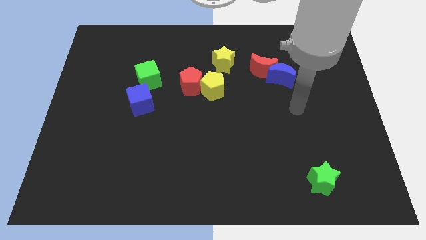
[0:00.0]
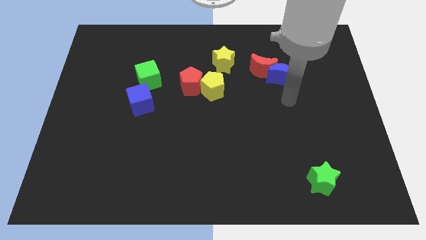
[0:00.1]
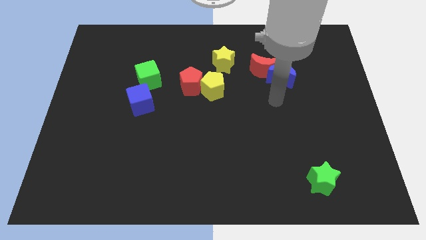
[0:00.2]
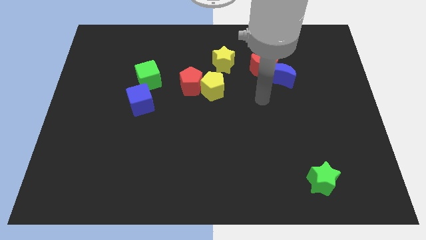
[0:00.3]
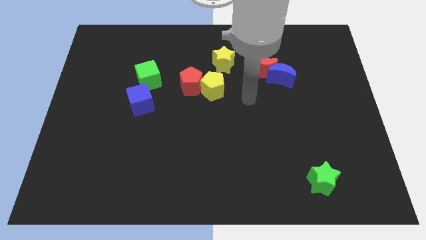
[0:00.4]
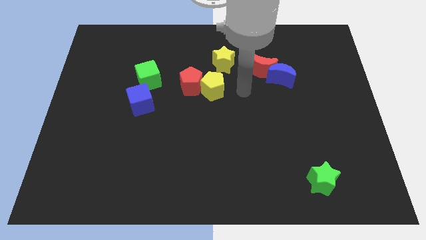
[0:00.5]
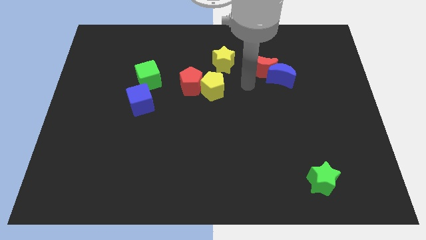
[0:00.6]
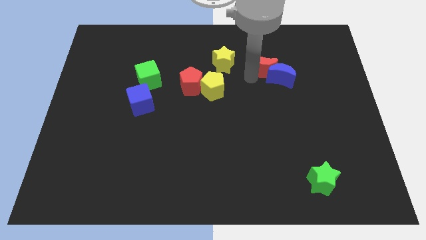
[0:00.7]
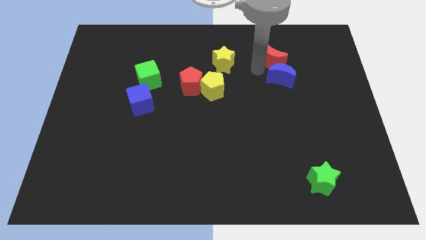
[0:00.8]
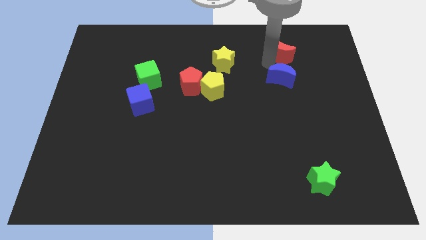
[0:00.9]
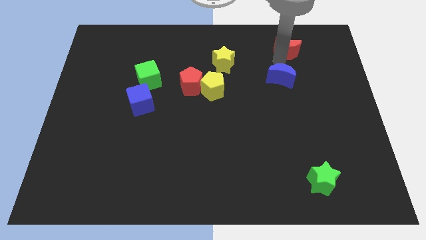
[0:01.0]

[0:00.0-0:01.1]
pull the blue moon apart from the red moon

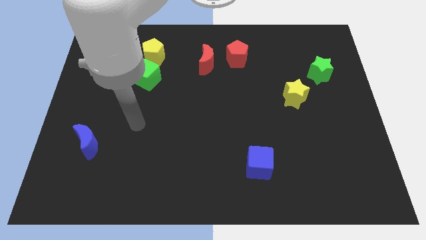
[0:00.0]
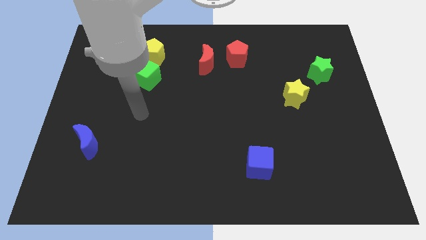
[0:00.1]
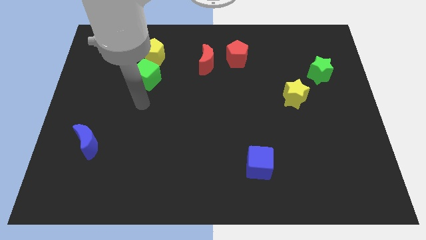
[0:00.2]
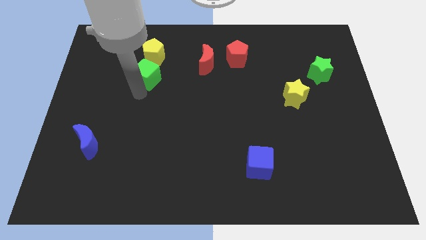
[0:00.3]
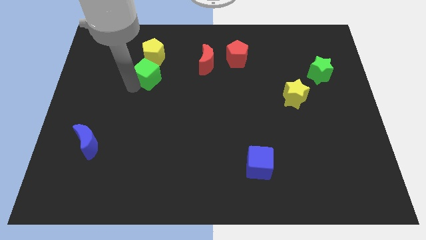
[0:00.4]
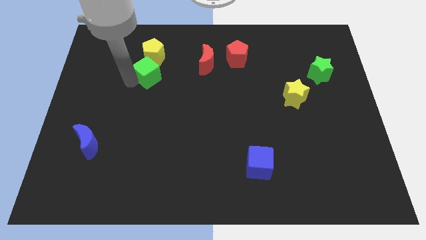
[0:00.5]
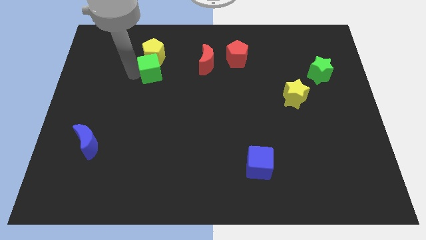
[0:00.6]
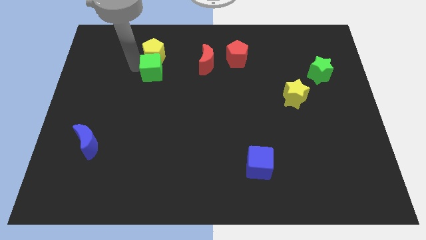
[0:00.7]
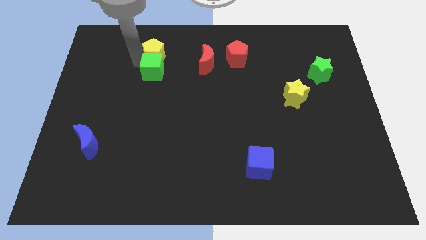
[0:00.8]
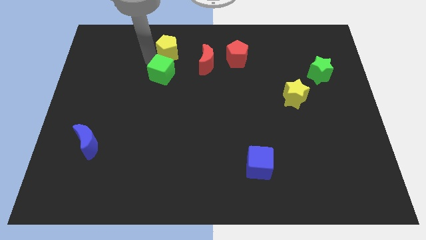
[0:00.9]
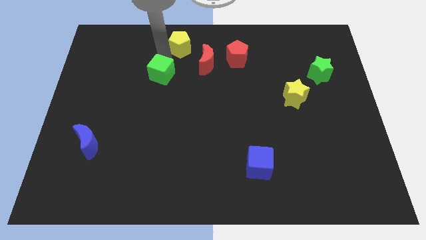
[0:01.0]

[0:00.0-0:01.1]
separate the green cube from the yellow pentagon

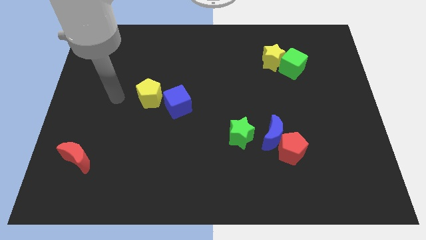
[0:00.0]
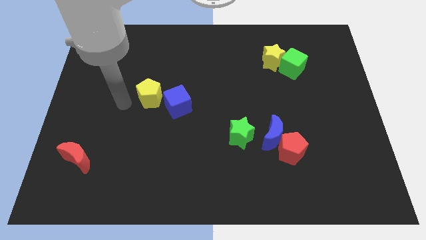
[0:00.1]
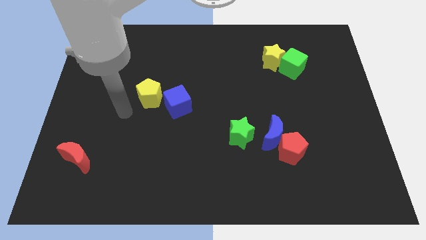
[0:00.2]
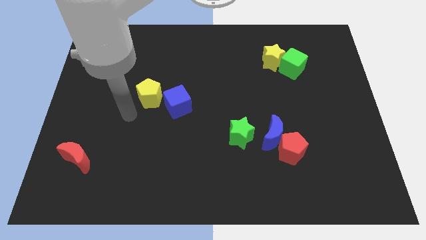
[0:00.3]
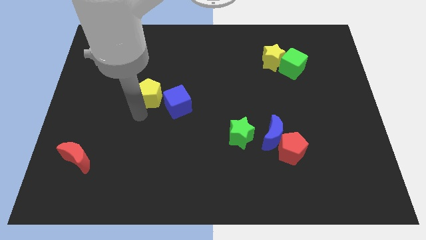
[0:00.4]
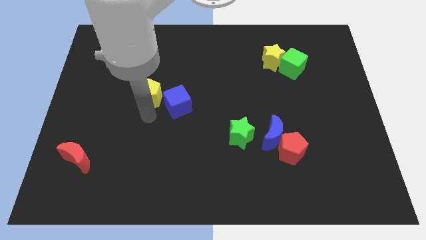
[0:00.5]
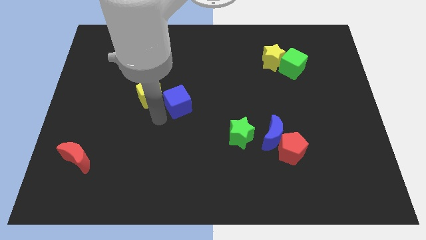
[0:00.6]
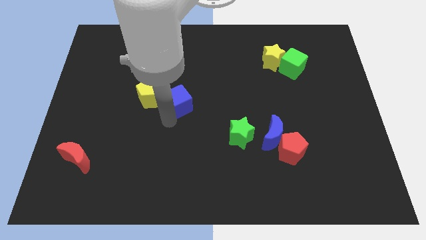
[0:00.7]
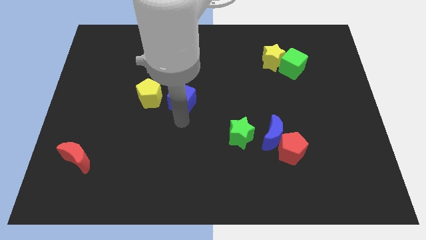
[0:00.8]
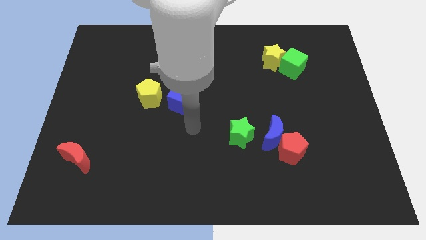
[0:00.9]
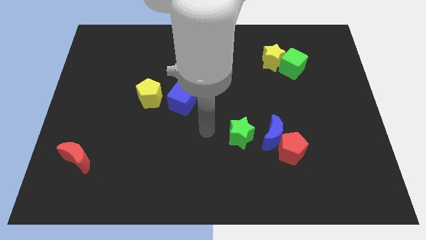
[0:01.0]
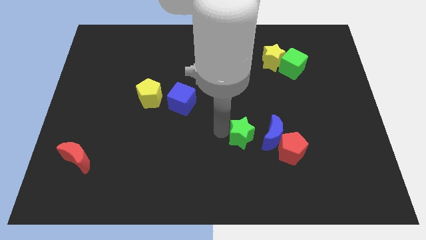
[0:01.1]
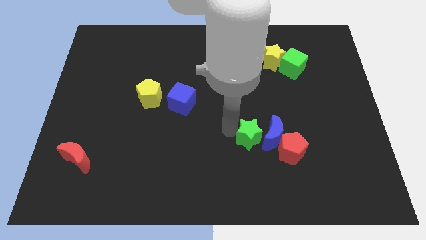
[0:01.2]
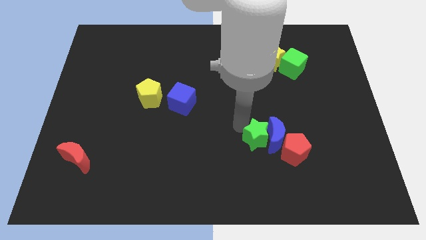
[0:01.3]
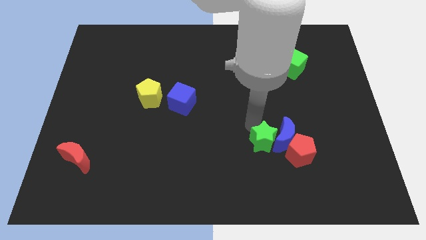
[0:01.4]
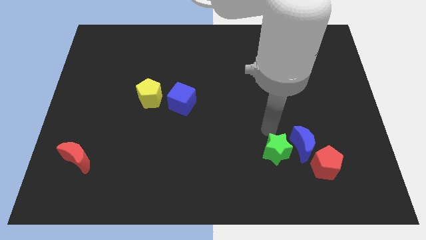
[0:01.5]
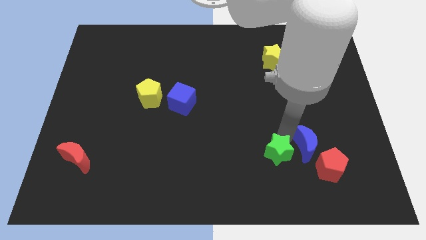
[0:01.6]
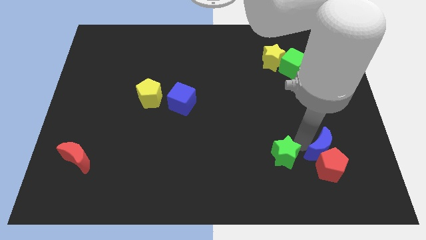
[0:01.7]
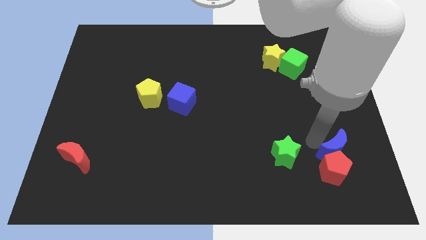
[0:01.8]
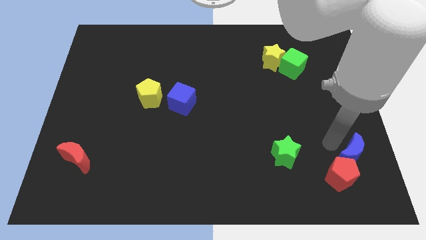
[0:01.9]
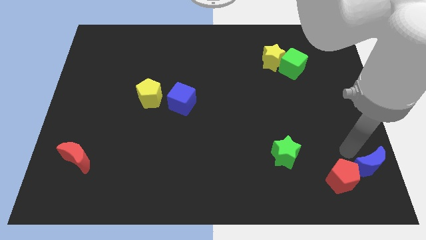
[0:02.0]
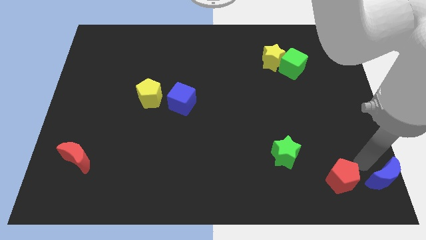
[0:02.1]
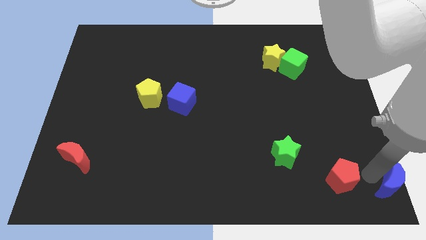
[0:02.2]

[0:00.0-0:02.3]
pull the red pentagon apart from the blue moon

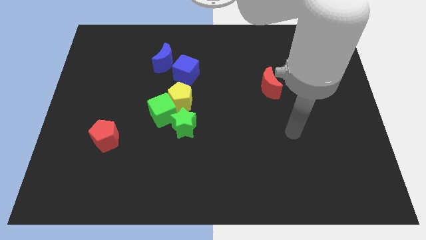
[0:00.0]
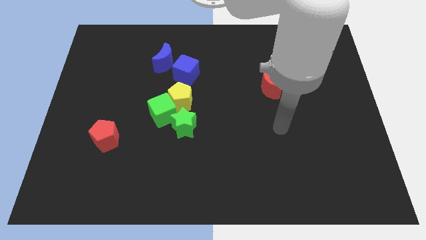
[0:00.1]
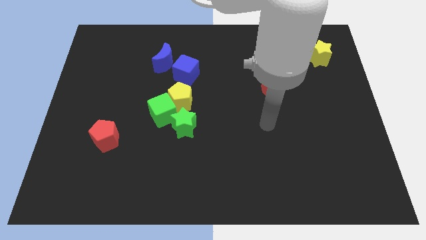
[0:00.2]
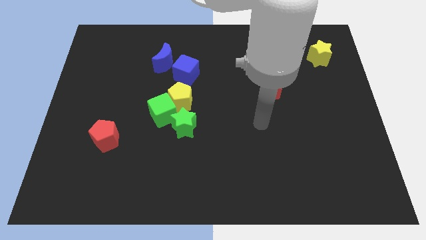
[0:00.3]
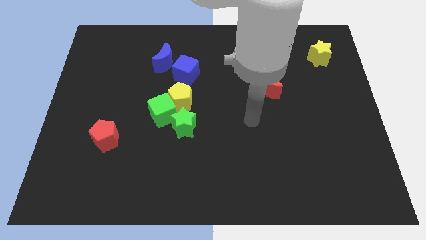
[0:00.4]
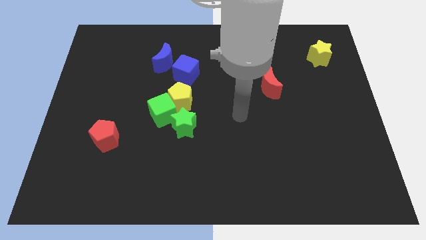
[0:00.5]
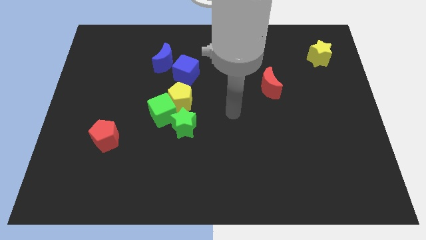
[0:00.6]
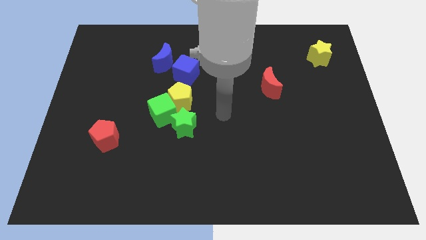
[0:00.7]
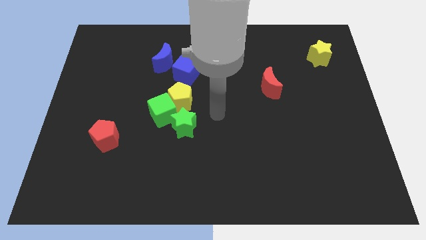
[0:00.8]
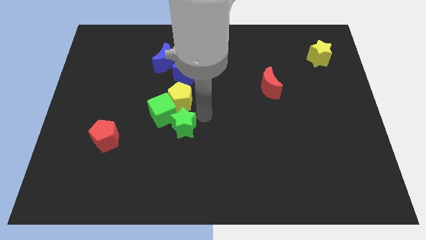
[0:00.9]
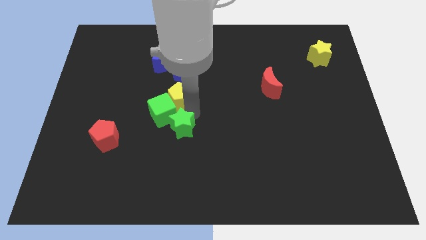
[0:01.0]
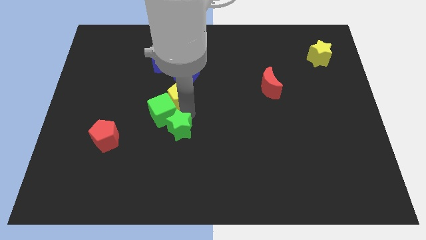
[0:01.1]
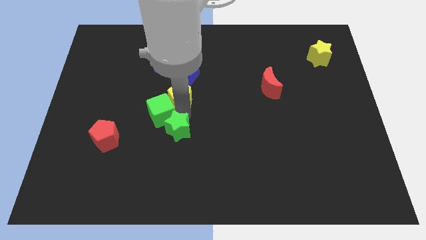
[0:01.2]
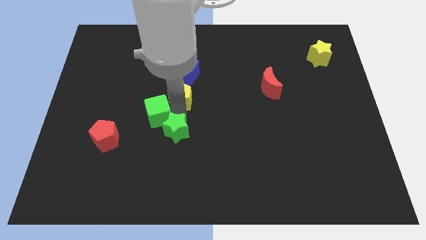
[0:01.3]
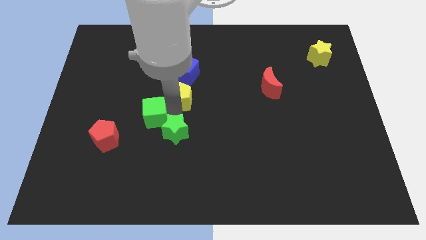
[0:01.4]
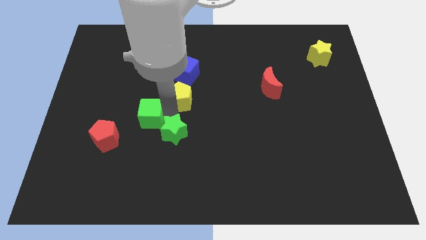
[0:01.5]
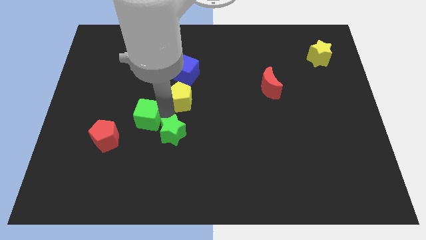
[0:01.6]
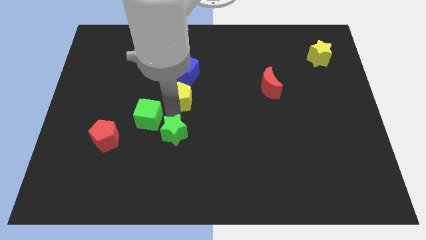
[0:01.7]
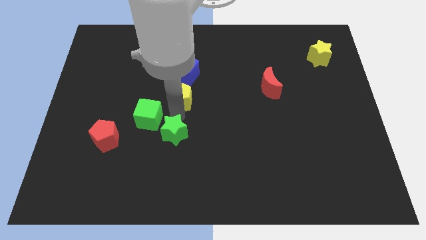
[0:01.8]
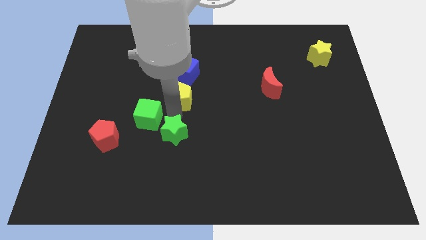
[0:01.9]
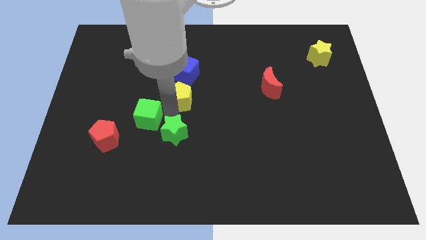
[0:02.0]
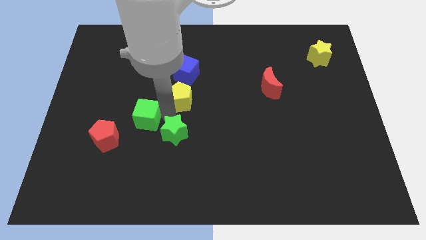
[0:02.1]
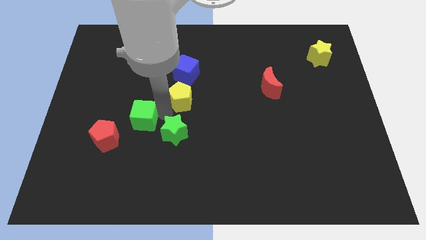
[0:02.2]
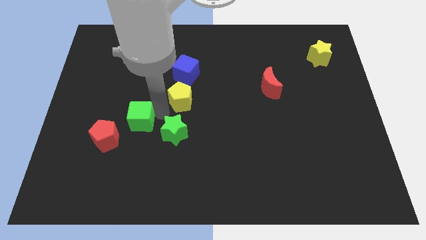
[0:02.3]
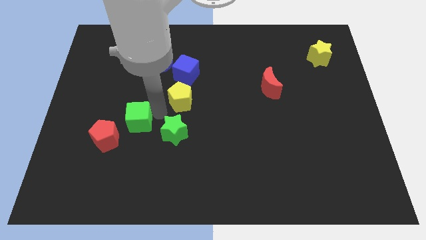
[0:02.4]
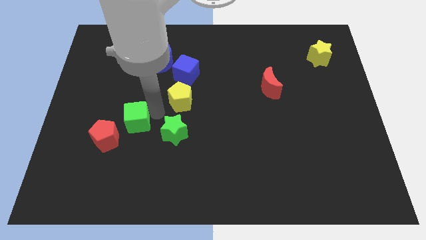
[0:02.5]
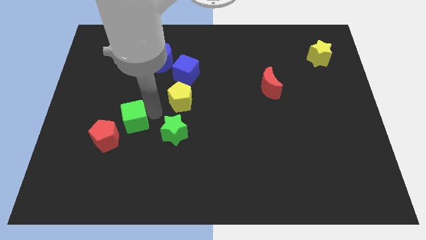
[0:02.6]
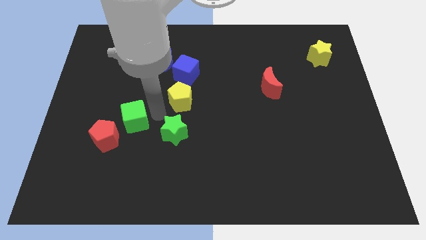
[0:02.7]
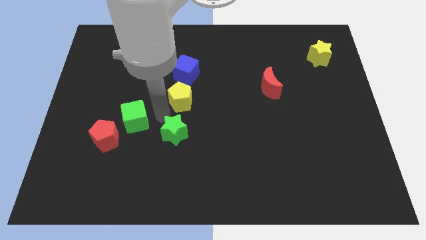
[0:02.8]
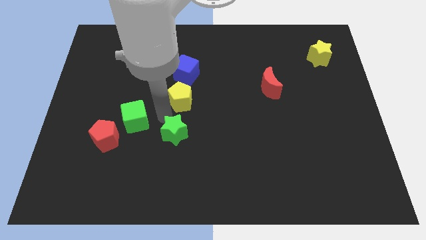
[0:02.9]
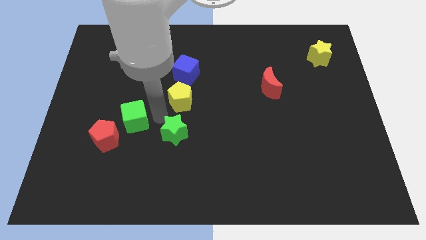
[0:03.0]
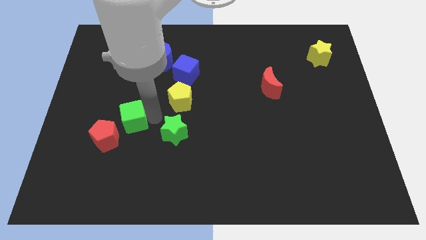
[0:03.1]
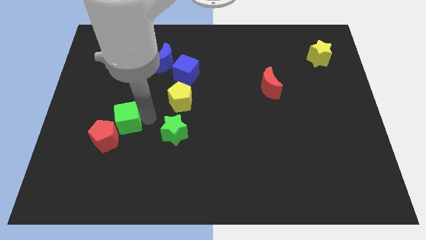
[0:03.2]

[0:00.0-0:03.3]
separate the green cube from the yellow pentagon and green star

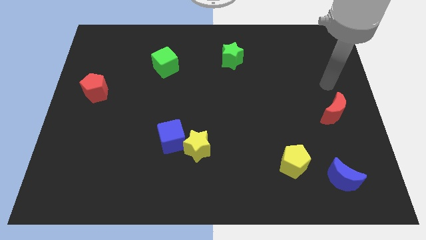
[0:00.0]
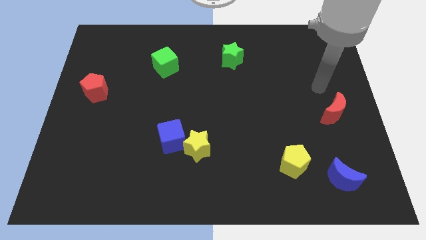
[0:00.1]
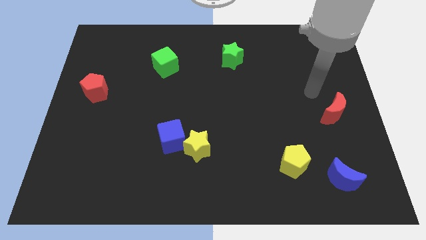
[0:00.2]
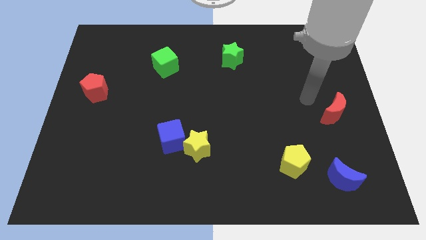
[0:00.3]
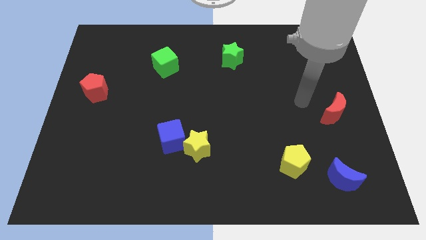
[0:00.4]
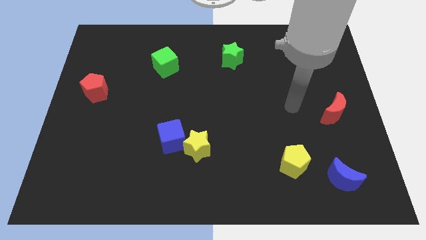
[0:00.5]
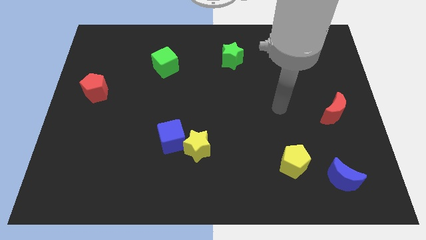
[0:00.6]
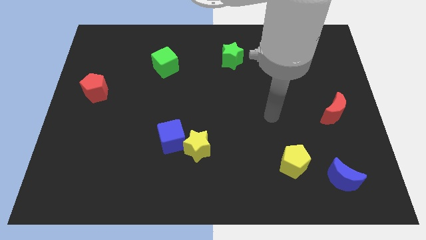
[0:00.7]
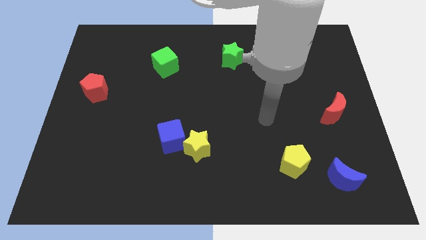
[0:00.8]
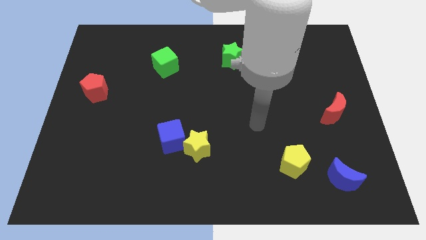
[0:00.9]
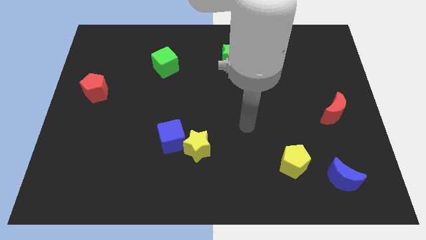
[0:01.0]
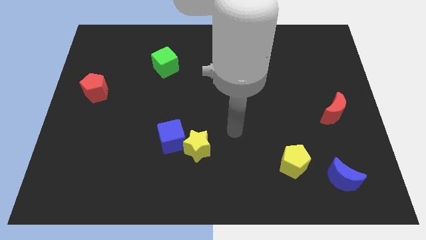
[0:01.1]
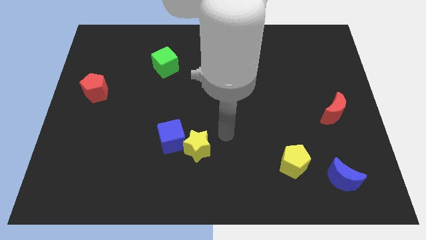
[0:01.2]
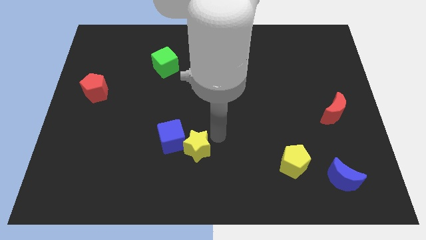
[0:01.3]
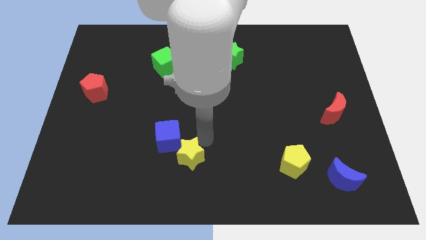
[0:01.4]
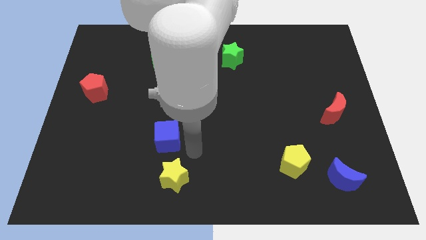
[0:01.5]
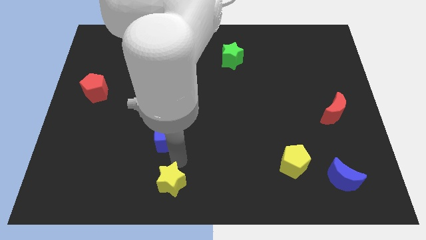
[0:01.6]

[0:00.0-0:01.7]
separate the blue cube from the yellow star
